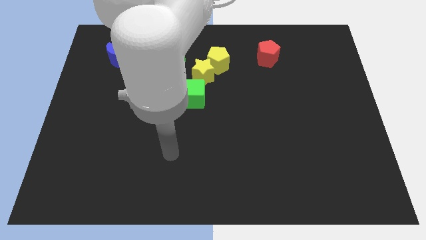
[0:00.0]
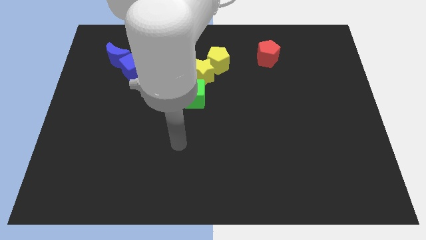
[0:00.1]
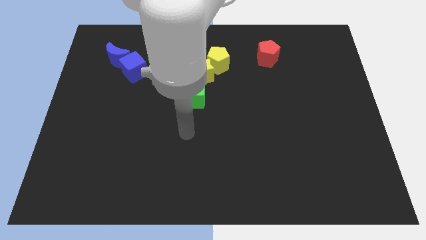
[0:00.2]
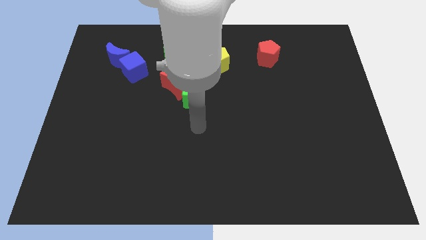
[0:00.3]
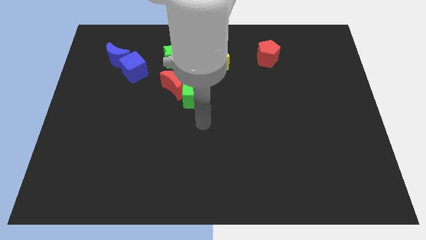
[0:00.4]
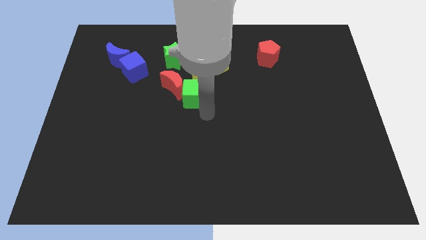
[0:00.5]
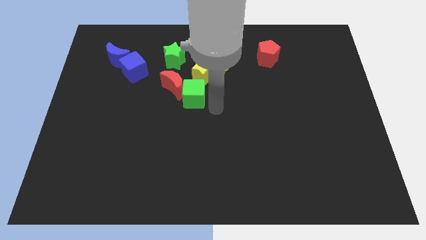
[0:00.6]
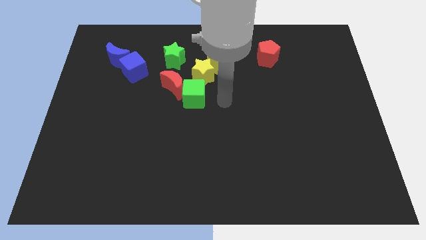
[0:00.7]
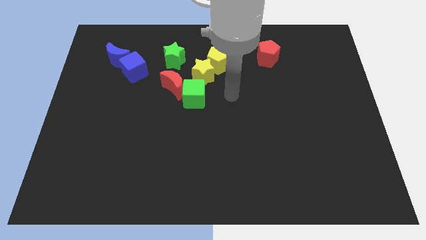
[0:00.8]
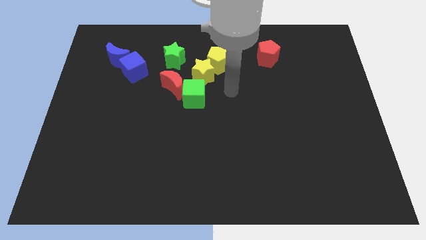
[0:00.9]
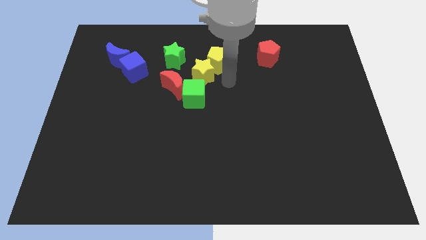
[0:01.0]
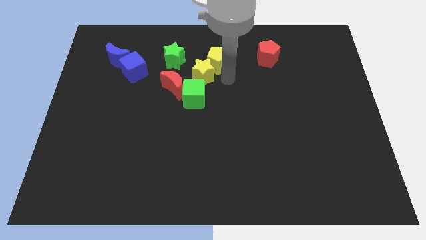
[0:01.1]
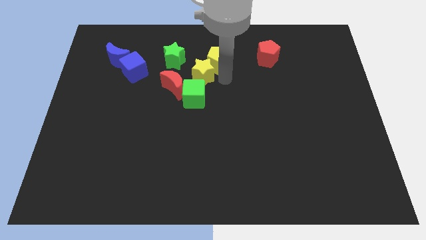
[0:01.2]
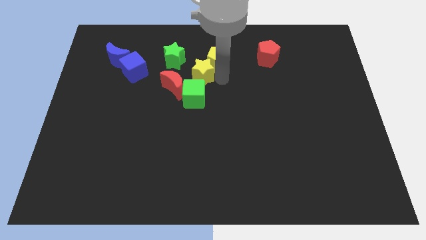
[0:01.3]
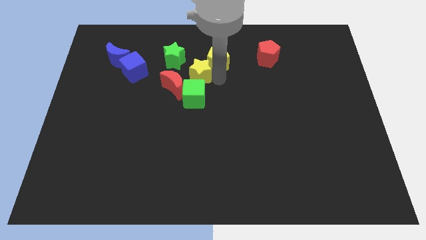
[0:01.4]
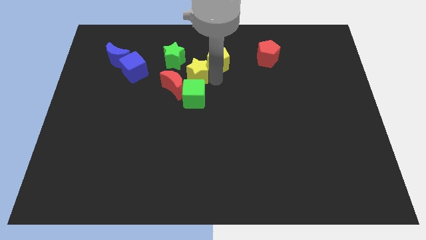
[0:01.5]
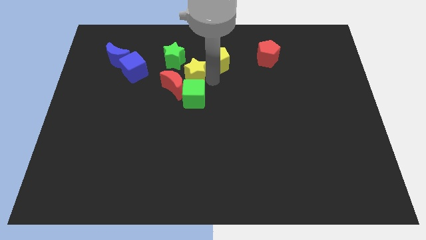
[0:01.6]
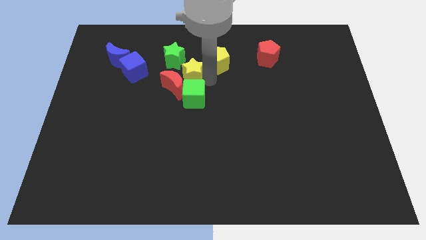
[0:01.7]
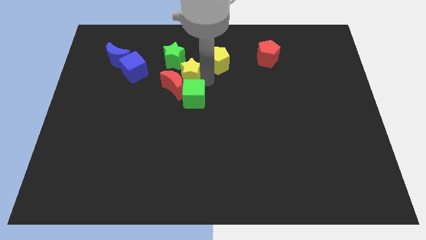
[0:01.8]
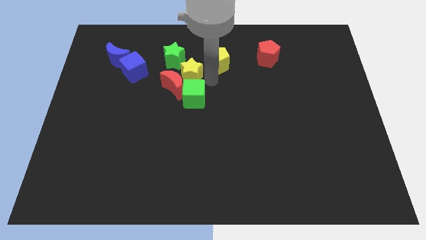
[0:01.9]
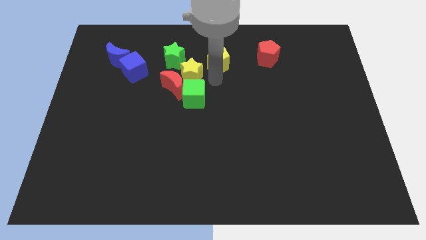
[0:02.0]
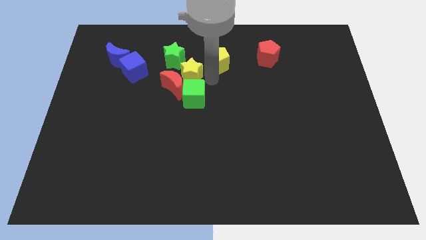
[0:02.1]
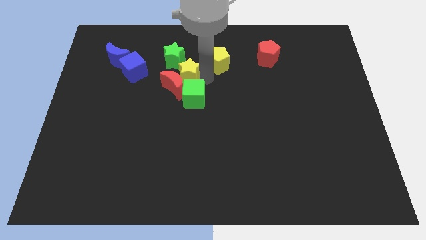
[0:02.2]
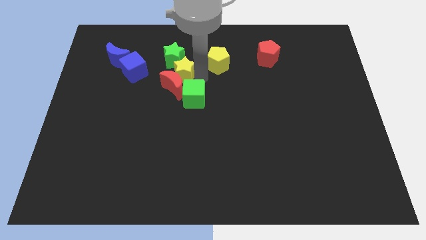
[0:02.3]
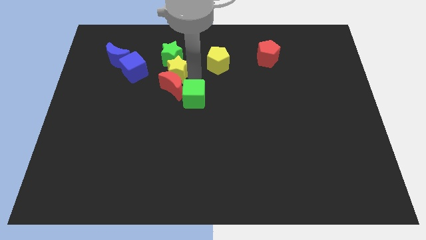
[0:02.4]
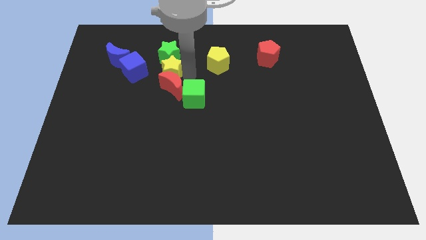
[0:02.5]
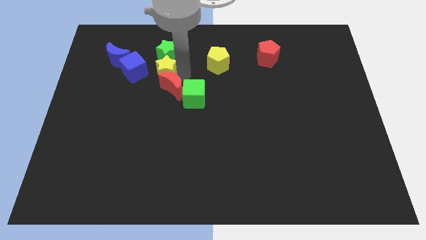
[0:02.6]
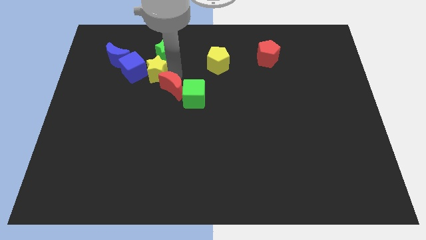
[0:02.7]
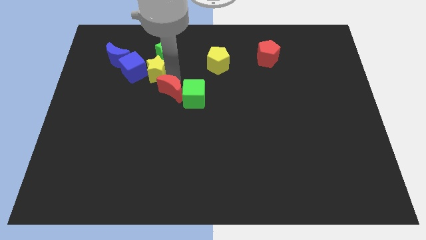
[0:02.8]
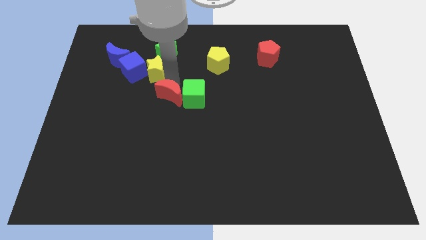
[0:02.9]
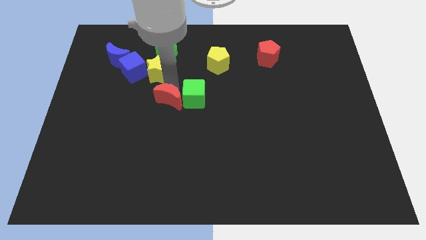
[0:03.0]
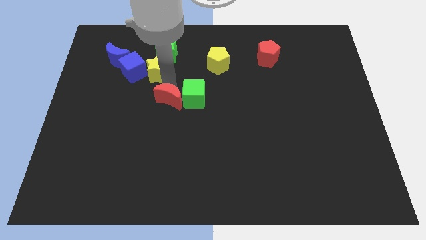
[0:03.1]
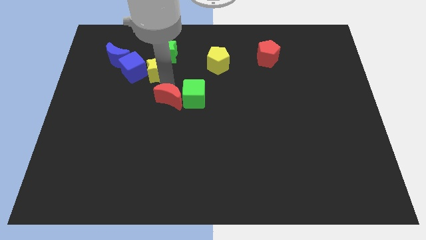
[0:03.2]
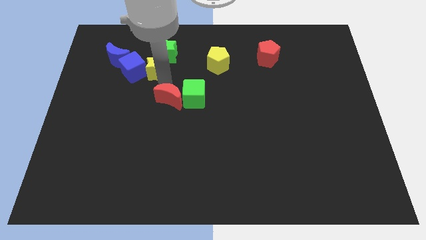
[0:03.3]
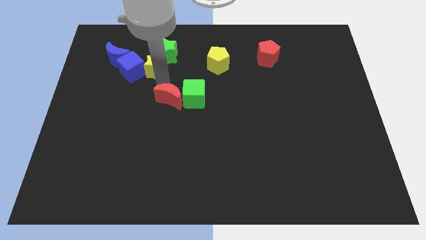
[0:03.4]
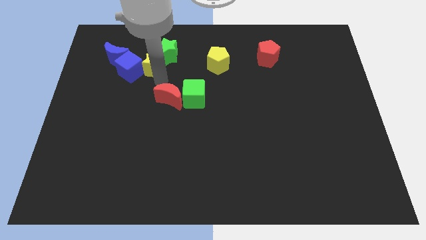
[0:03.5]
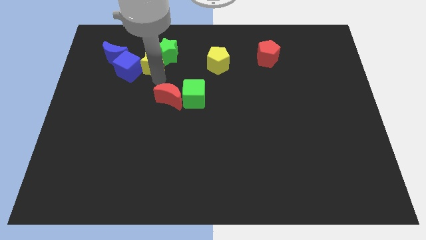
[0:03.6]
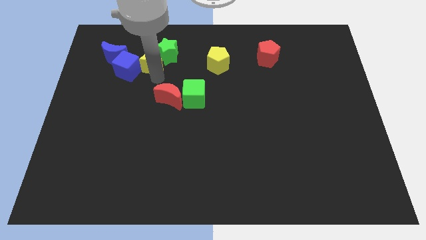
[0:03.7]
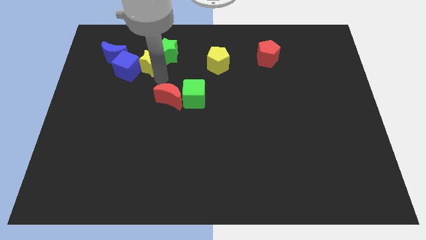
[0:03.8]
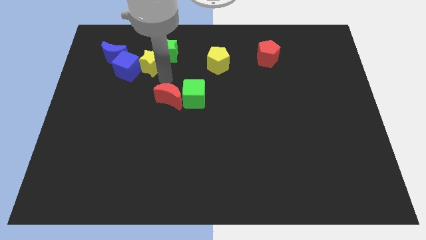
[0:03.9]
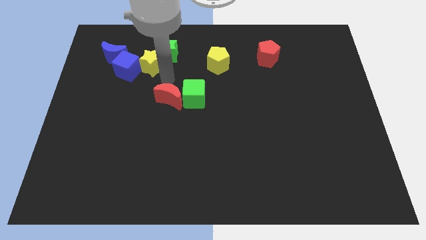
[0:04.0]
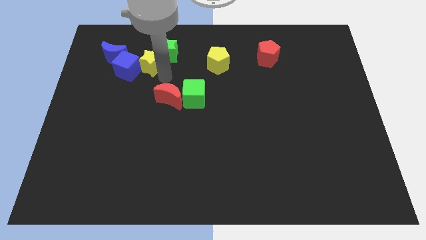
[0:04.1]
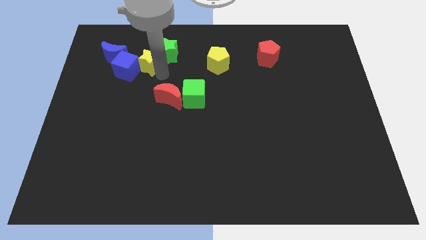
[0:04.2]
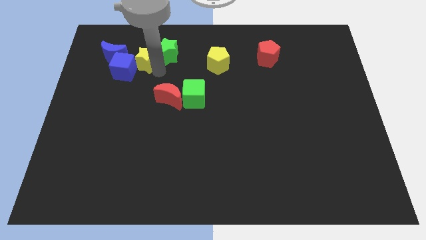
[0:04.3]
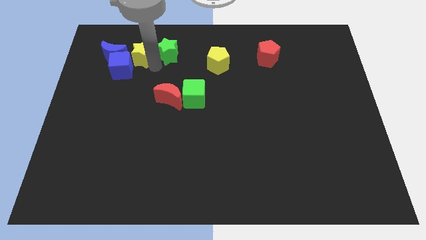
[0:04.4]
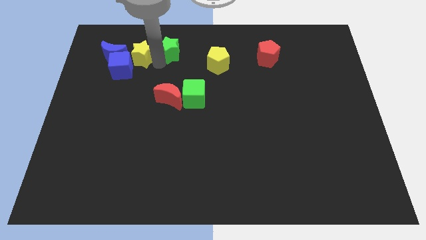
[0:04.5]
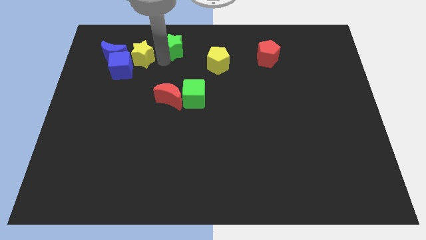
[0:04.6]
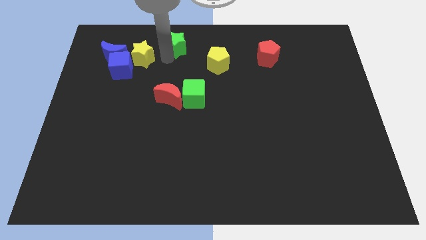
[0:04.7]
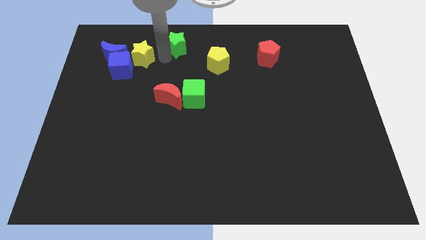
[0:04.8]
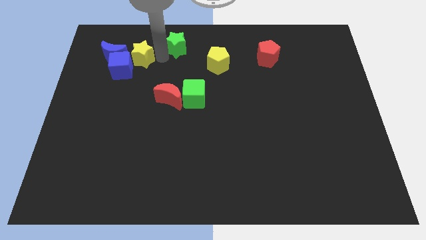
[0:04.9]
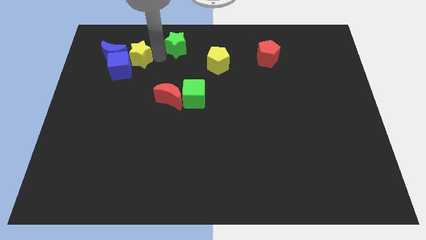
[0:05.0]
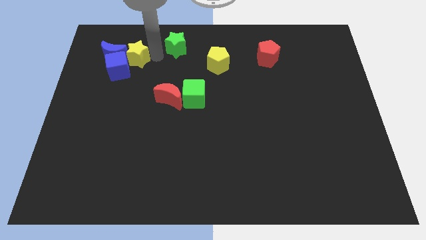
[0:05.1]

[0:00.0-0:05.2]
push the yellow star to the blue moon

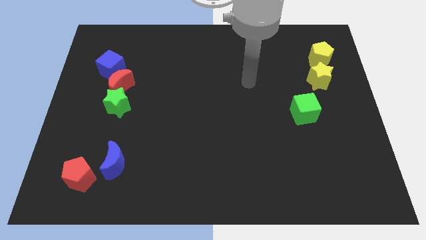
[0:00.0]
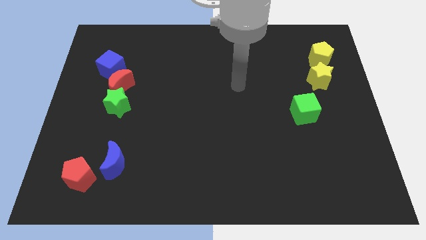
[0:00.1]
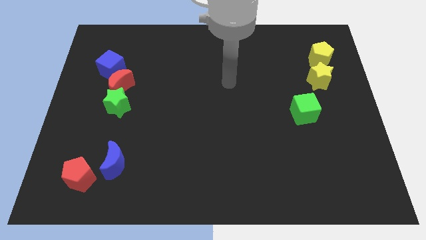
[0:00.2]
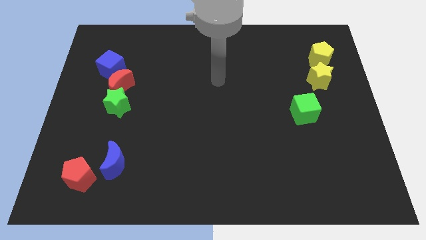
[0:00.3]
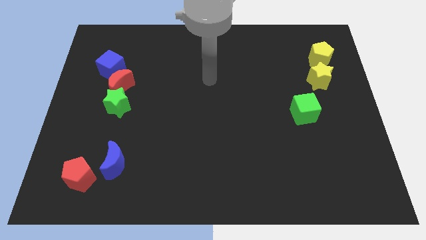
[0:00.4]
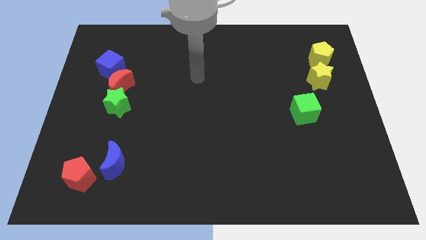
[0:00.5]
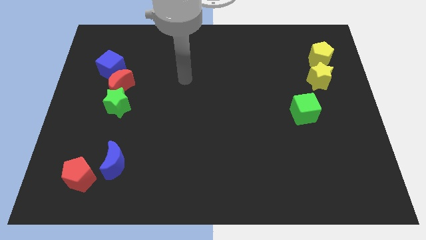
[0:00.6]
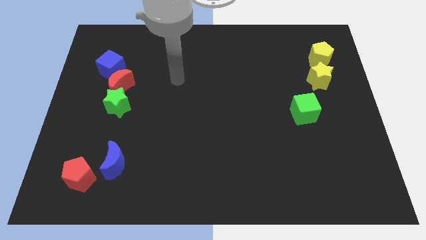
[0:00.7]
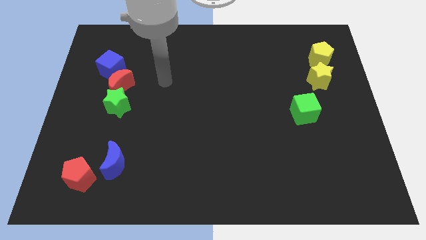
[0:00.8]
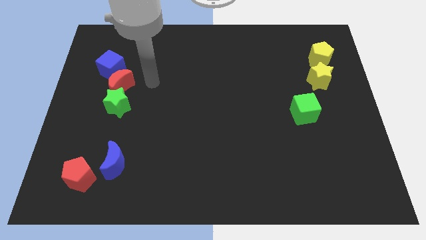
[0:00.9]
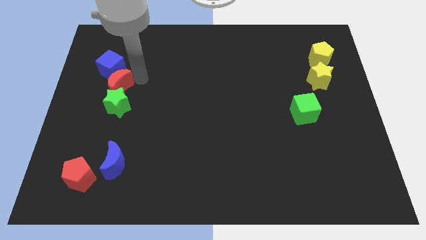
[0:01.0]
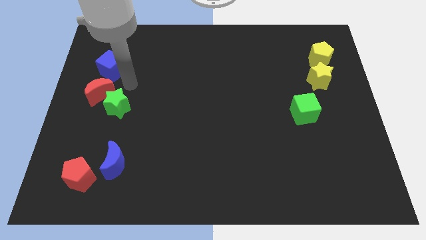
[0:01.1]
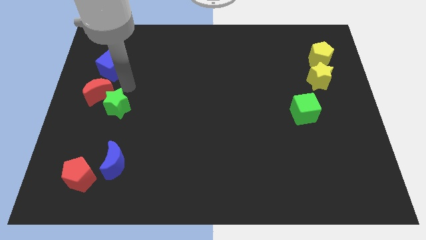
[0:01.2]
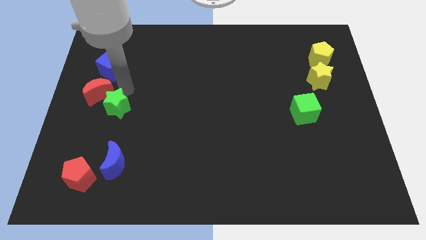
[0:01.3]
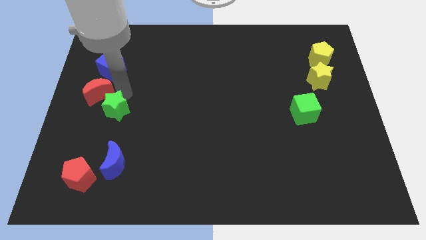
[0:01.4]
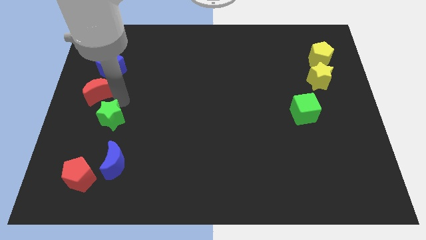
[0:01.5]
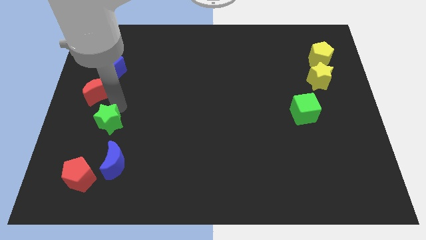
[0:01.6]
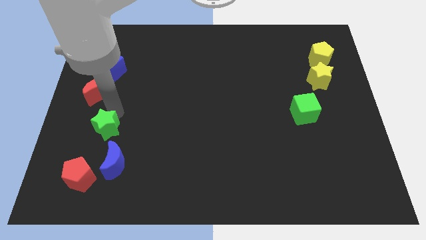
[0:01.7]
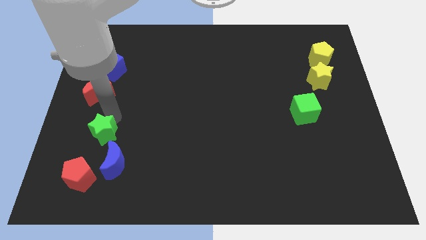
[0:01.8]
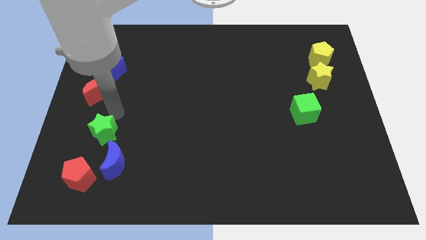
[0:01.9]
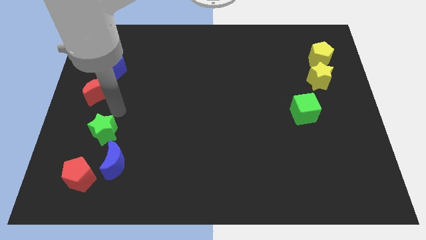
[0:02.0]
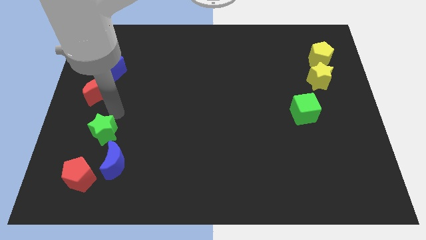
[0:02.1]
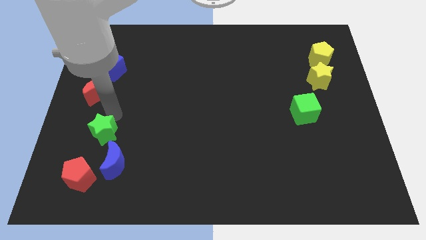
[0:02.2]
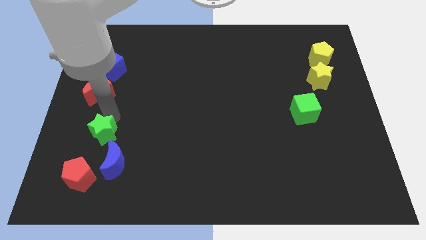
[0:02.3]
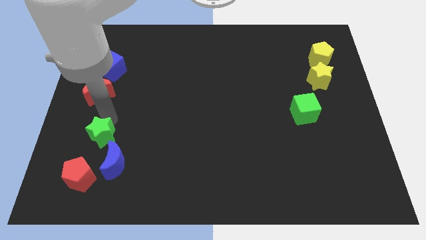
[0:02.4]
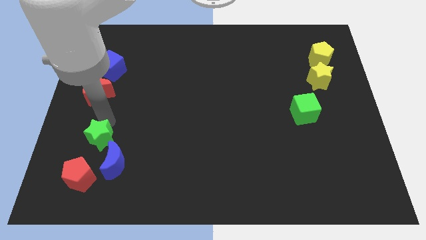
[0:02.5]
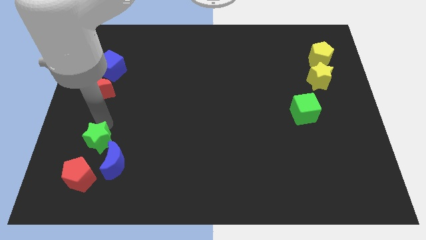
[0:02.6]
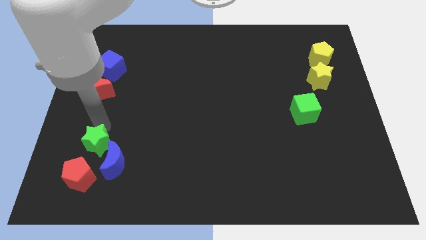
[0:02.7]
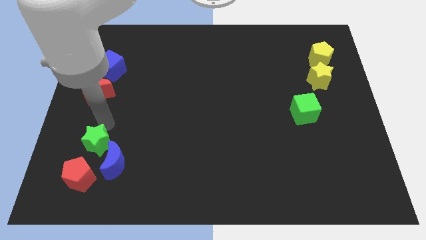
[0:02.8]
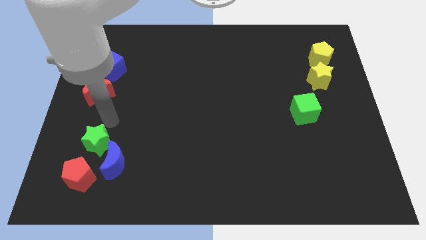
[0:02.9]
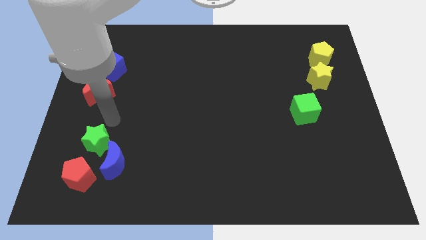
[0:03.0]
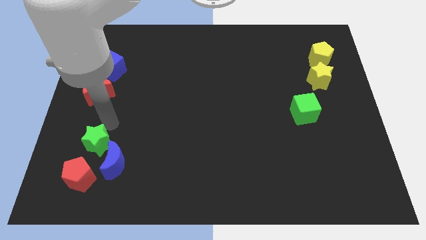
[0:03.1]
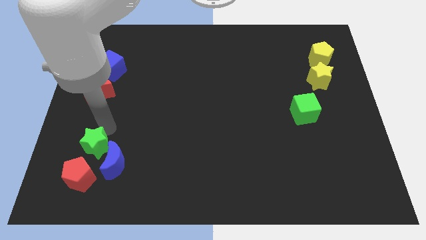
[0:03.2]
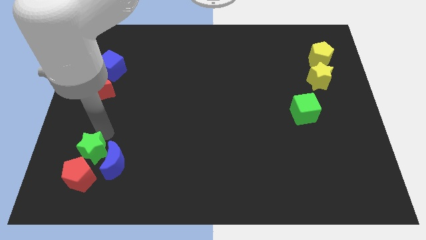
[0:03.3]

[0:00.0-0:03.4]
move the green star towards the red pentagon
